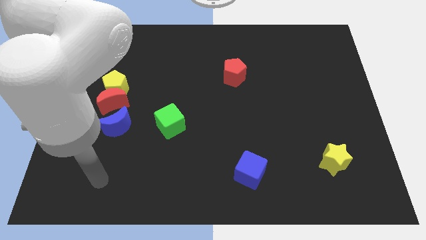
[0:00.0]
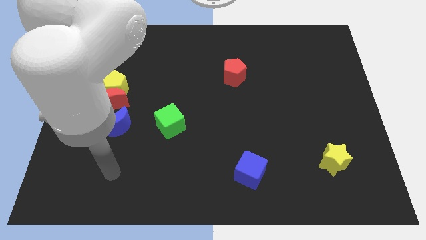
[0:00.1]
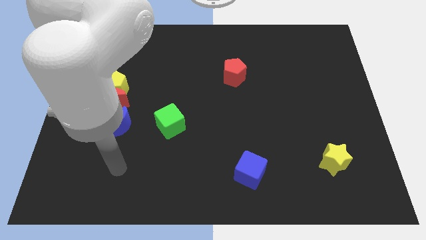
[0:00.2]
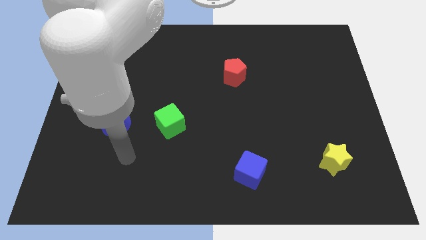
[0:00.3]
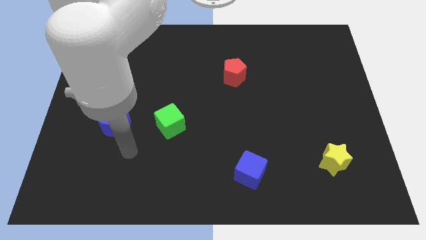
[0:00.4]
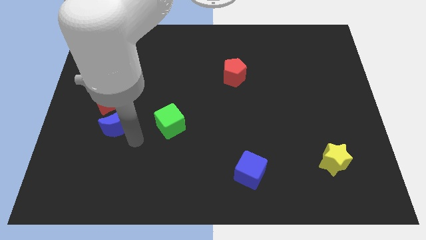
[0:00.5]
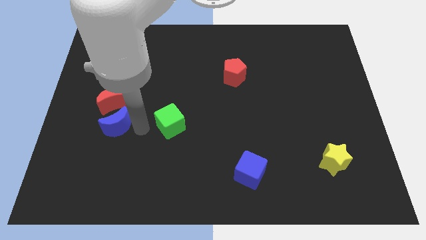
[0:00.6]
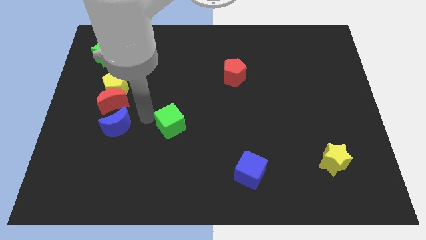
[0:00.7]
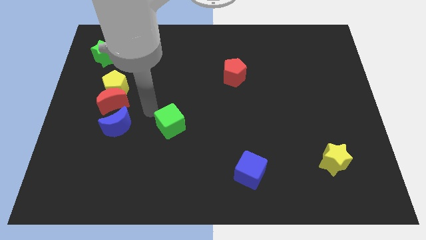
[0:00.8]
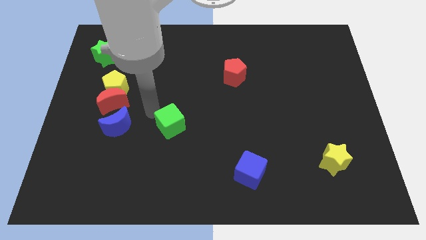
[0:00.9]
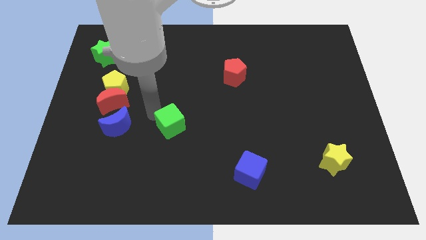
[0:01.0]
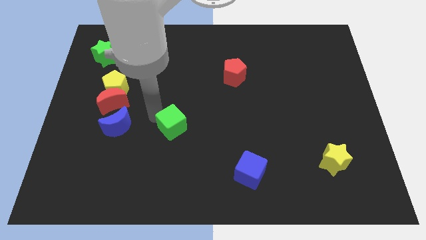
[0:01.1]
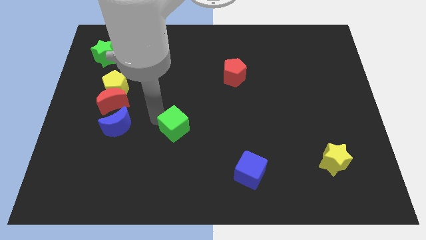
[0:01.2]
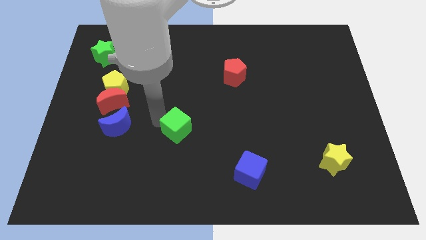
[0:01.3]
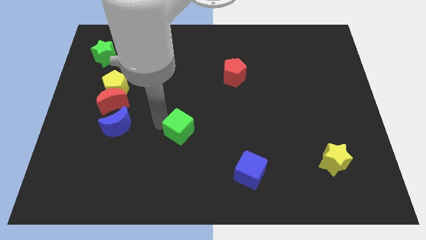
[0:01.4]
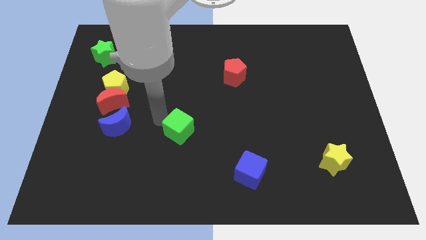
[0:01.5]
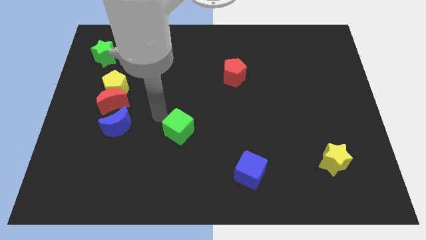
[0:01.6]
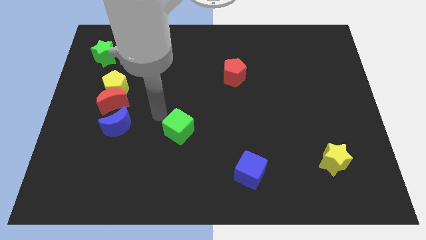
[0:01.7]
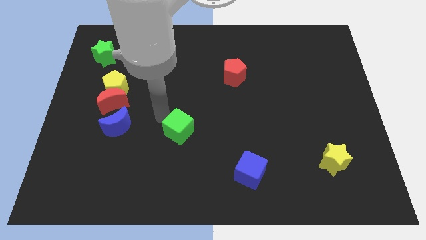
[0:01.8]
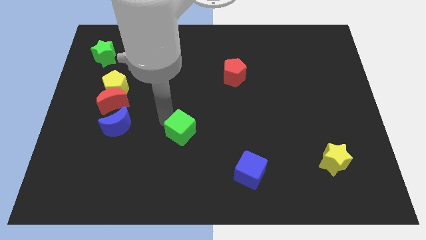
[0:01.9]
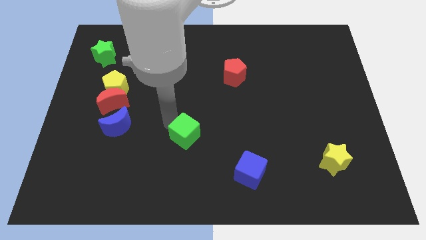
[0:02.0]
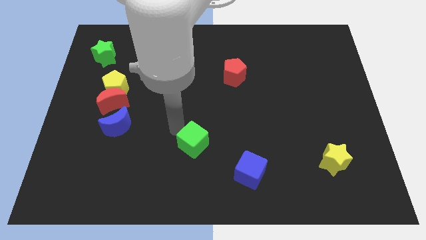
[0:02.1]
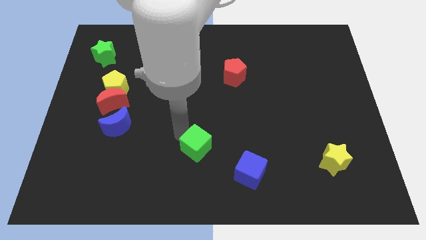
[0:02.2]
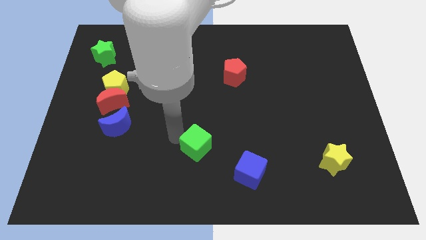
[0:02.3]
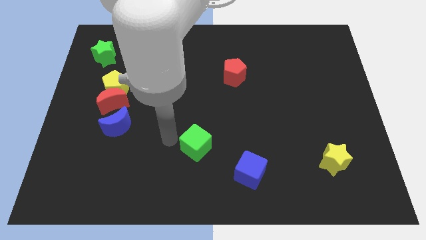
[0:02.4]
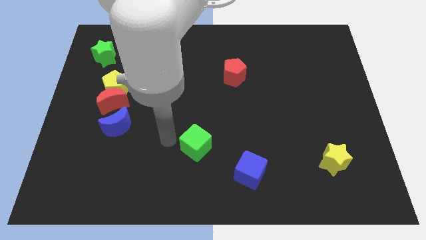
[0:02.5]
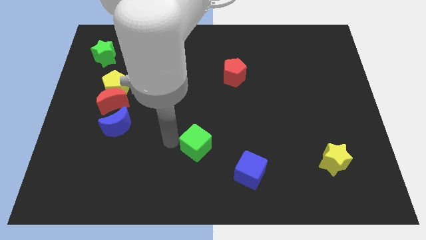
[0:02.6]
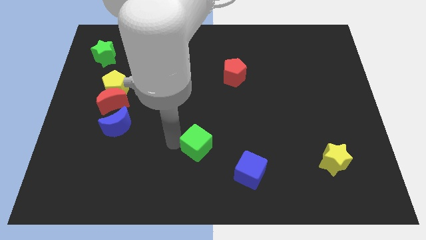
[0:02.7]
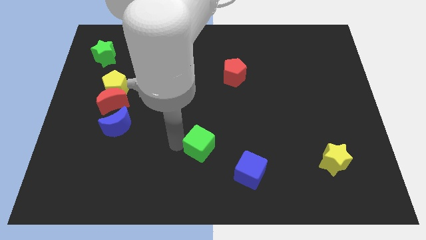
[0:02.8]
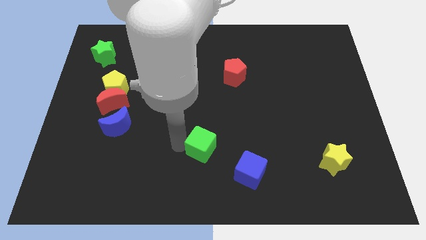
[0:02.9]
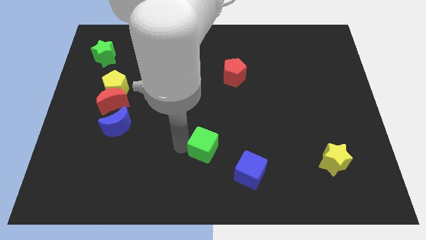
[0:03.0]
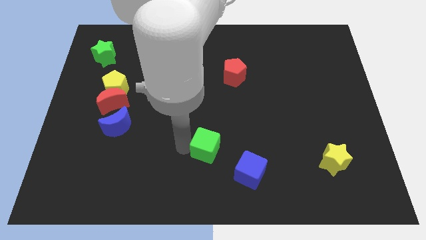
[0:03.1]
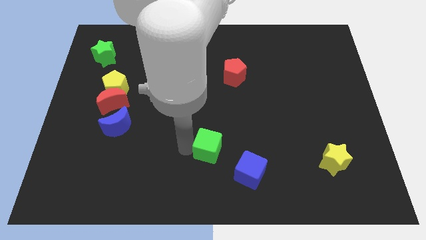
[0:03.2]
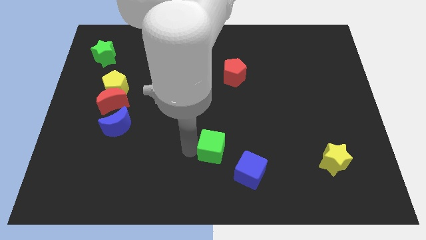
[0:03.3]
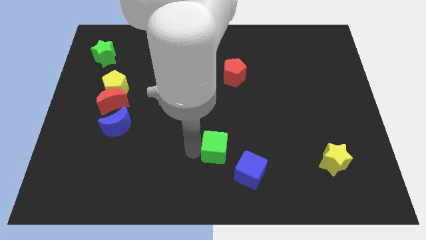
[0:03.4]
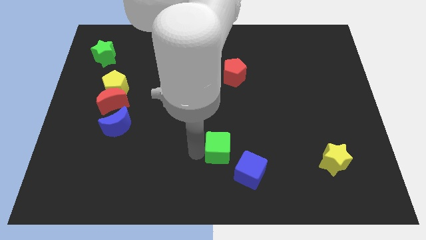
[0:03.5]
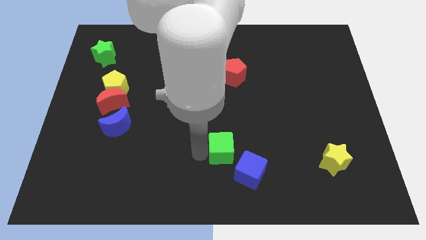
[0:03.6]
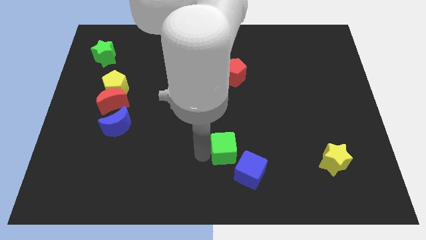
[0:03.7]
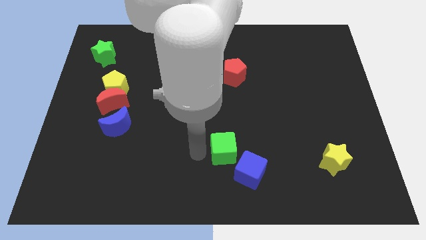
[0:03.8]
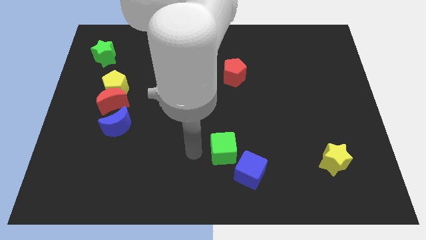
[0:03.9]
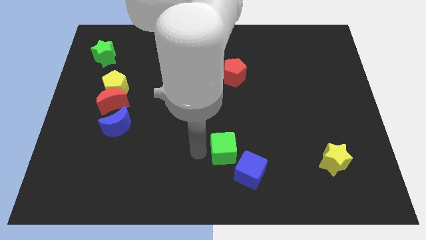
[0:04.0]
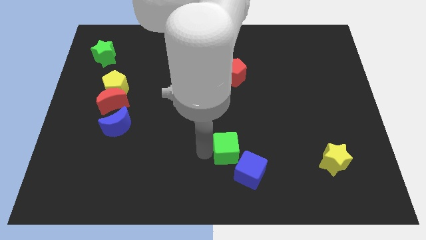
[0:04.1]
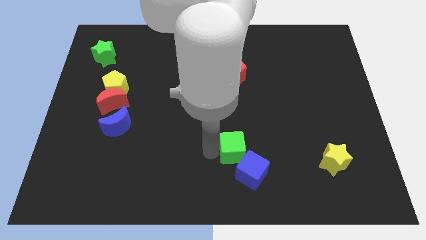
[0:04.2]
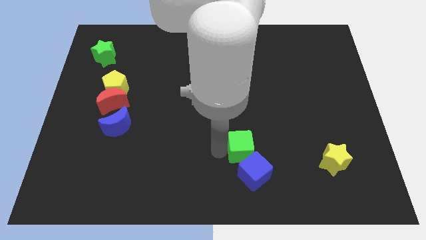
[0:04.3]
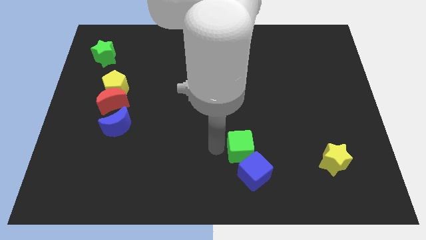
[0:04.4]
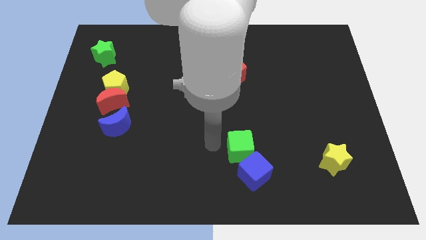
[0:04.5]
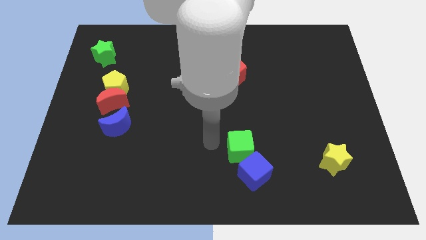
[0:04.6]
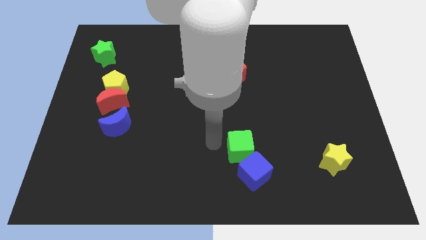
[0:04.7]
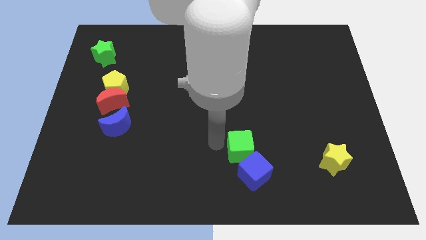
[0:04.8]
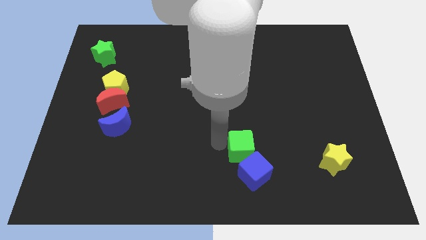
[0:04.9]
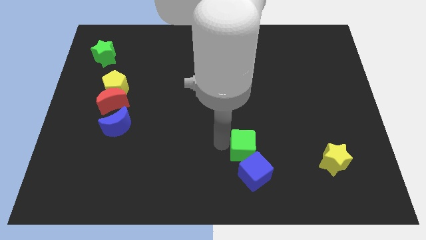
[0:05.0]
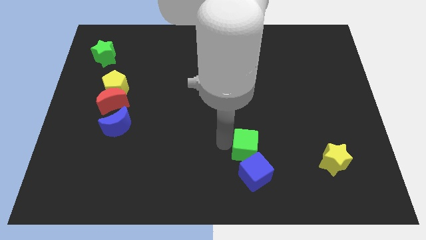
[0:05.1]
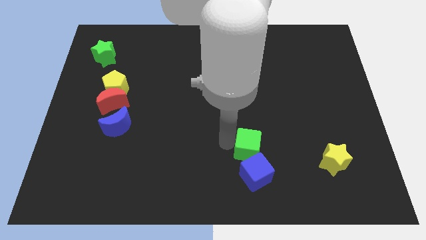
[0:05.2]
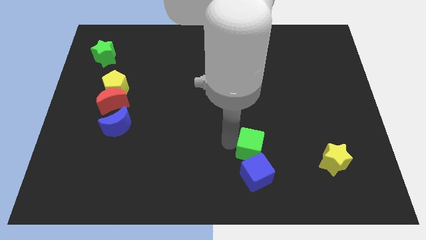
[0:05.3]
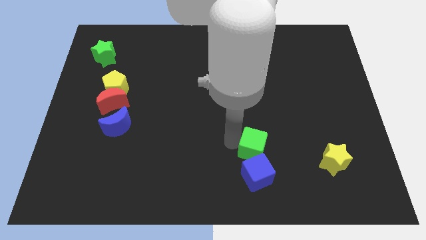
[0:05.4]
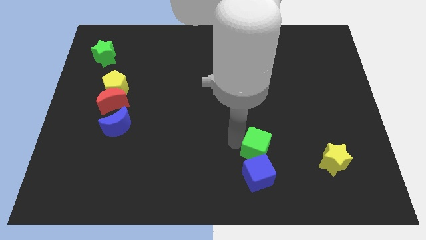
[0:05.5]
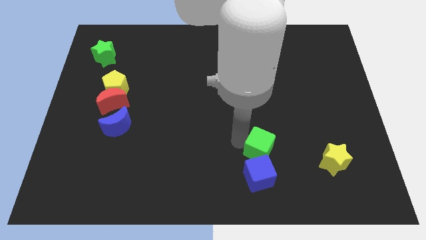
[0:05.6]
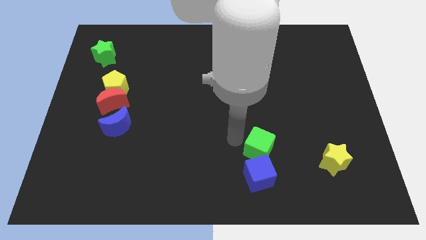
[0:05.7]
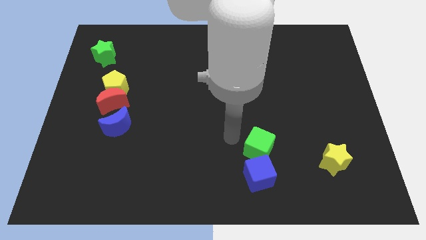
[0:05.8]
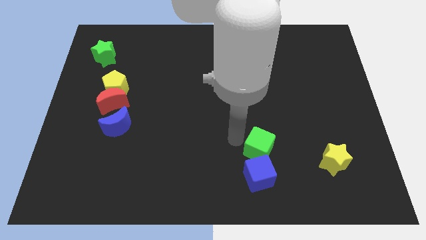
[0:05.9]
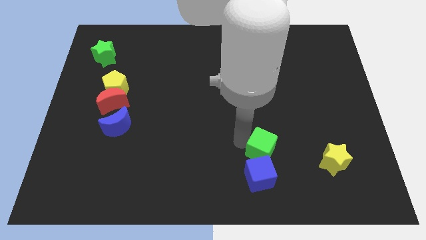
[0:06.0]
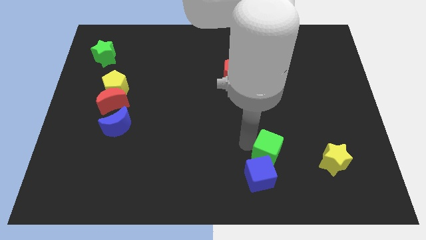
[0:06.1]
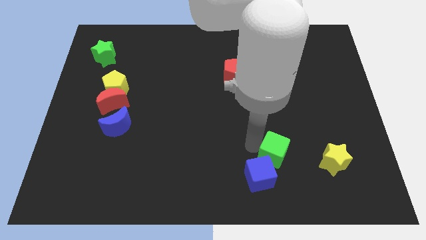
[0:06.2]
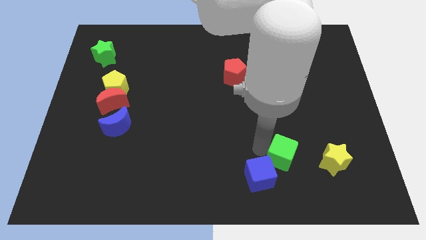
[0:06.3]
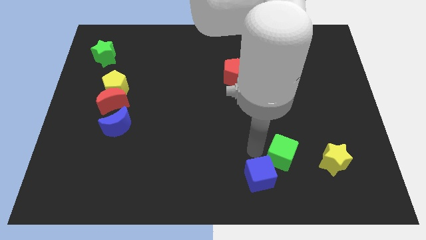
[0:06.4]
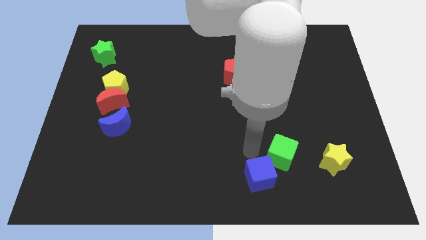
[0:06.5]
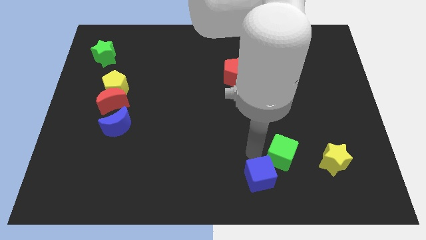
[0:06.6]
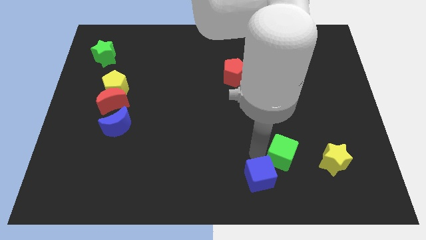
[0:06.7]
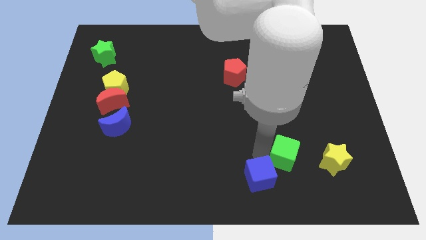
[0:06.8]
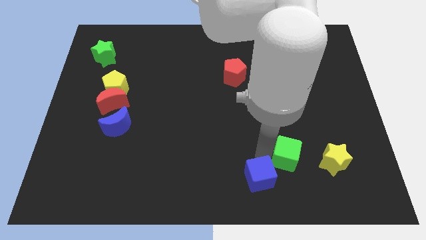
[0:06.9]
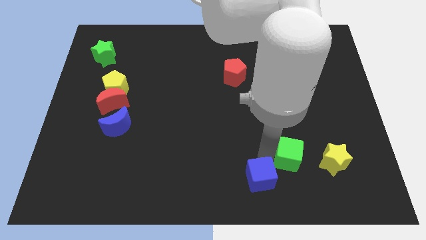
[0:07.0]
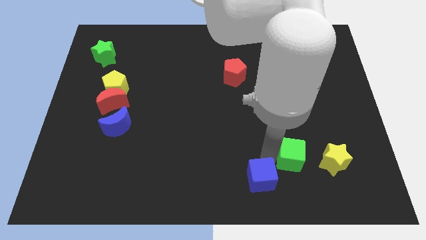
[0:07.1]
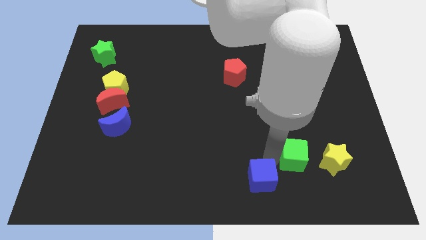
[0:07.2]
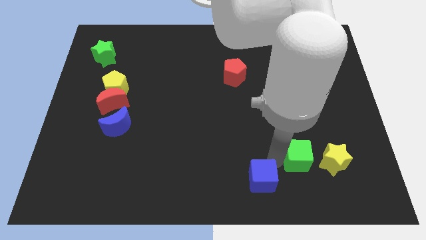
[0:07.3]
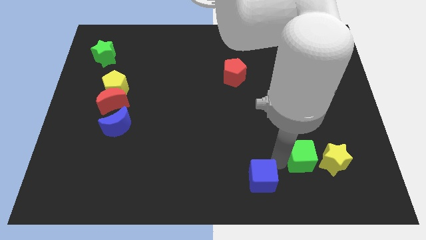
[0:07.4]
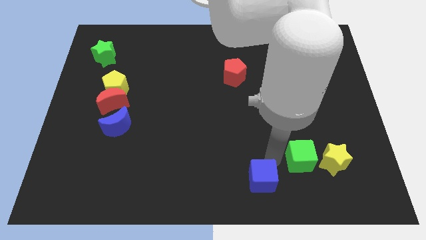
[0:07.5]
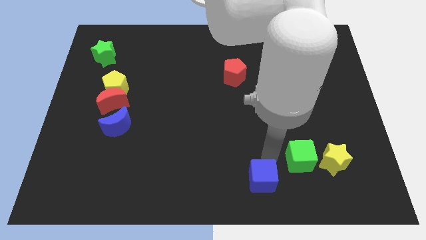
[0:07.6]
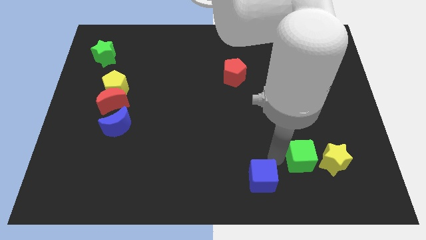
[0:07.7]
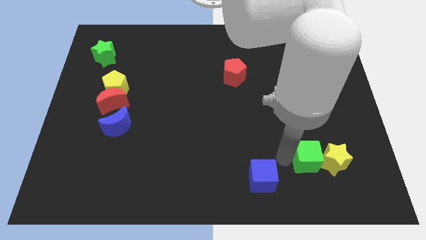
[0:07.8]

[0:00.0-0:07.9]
put the green cube to the yellow star
